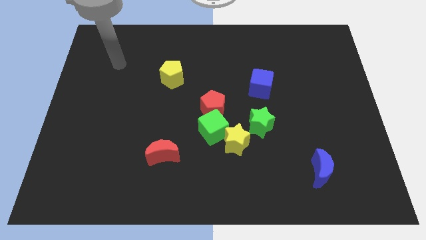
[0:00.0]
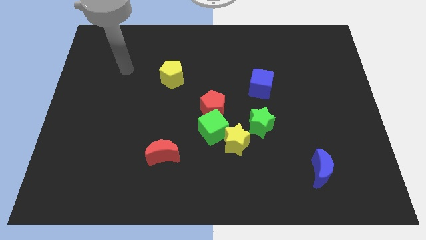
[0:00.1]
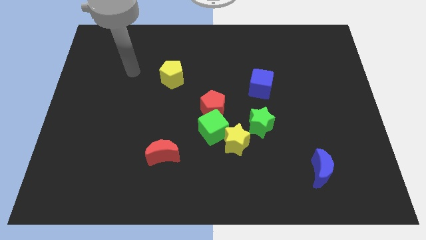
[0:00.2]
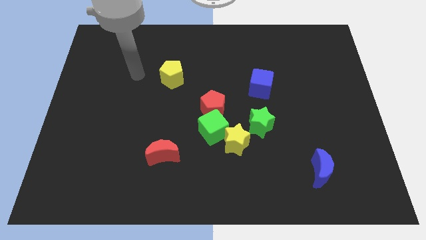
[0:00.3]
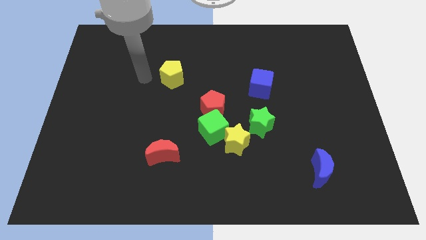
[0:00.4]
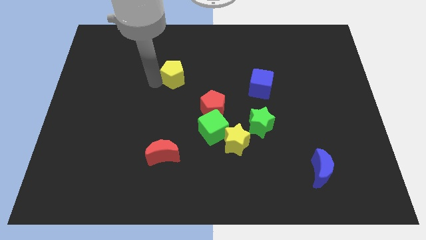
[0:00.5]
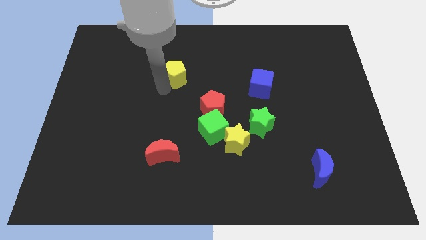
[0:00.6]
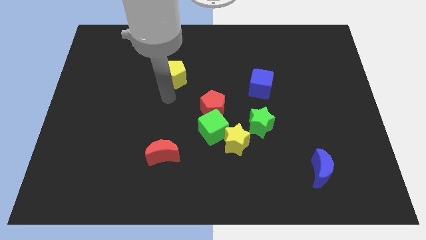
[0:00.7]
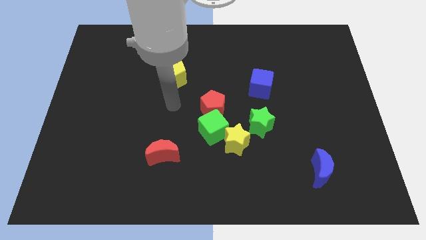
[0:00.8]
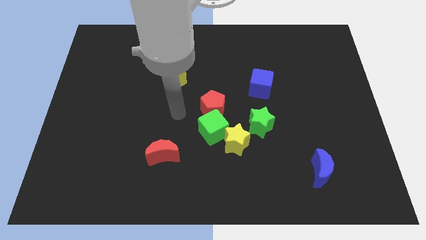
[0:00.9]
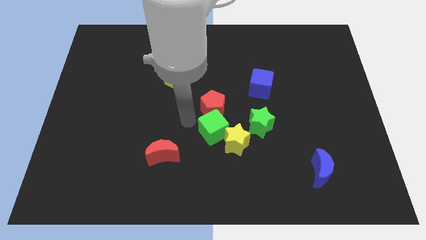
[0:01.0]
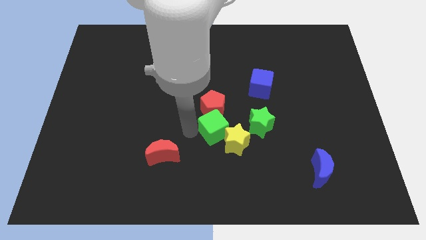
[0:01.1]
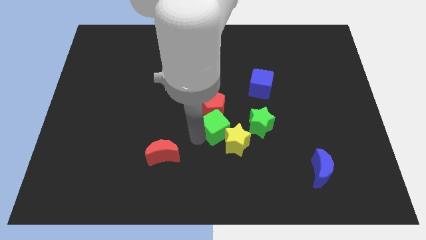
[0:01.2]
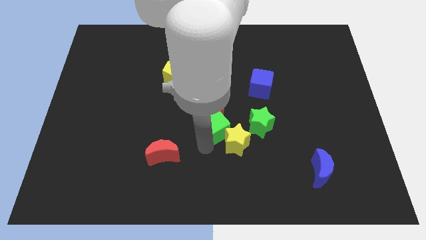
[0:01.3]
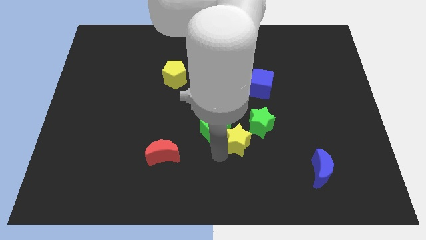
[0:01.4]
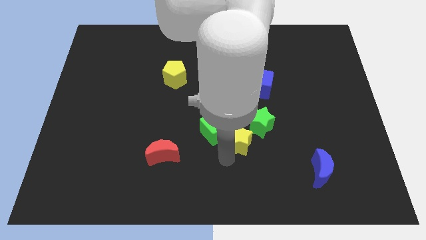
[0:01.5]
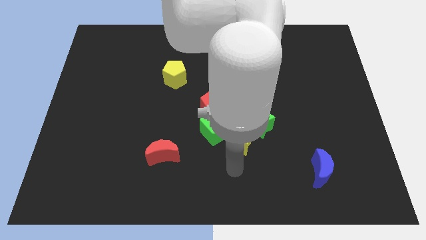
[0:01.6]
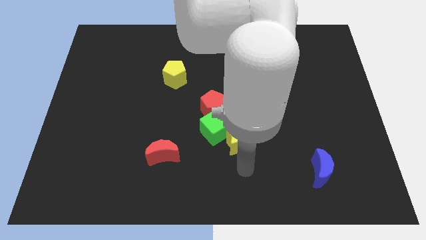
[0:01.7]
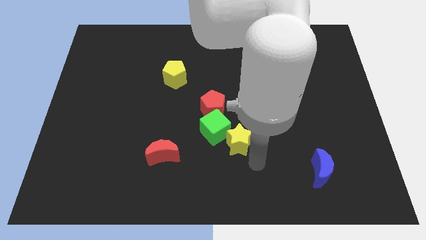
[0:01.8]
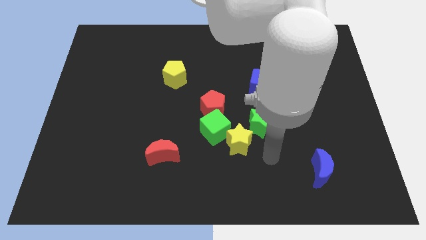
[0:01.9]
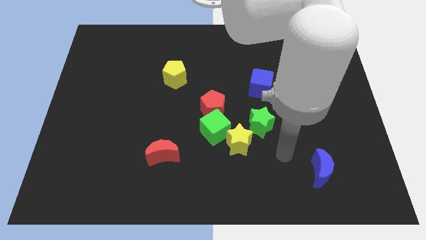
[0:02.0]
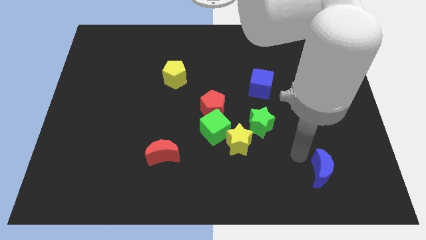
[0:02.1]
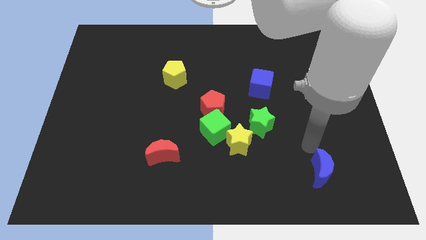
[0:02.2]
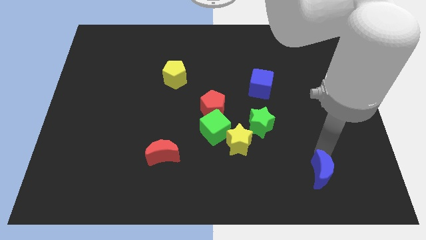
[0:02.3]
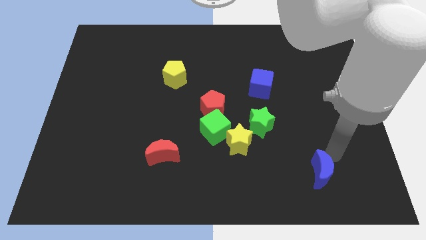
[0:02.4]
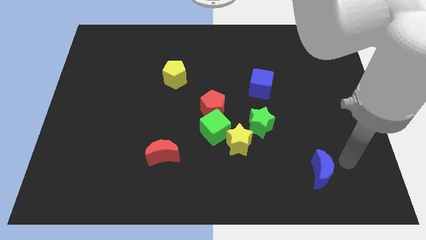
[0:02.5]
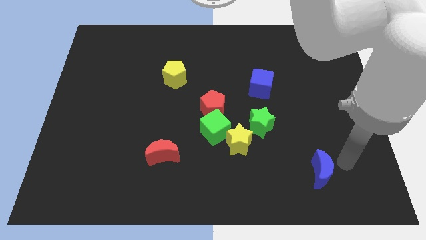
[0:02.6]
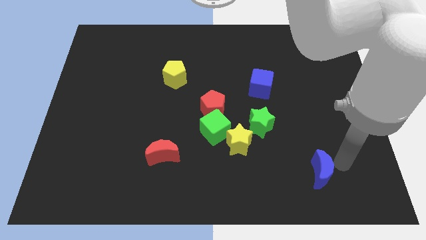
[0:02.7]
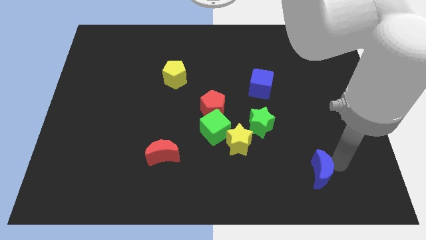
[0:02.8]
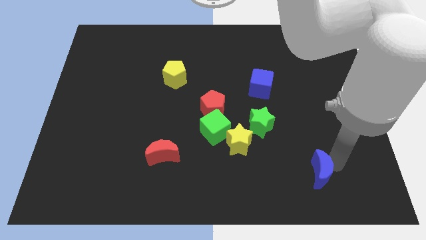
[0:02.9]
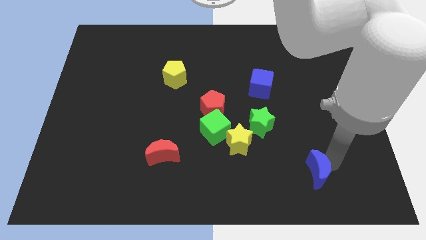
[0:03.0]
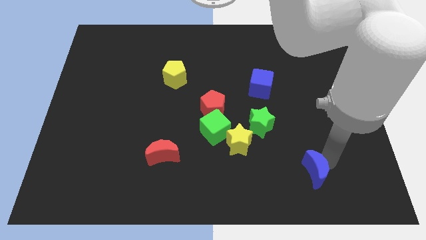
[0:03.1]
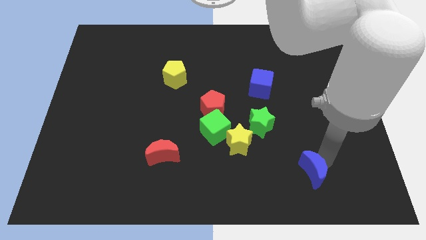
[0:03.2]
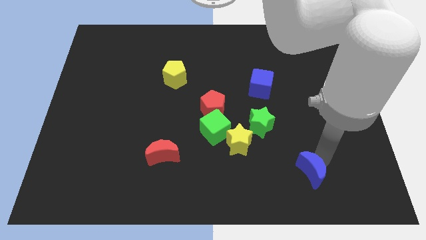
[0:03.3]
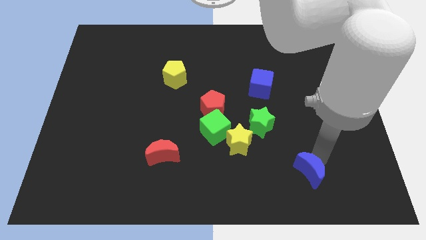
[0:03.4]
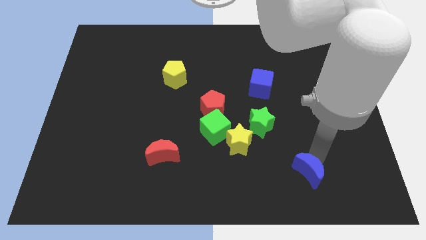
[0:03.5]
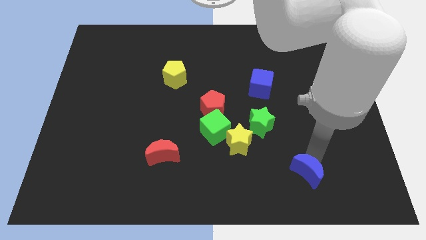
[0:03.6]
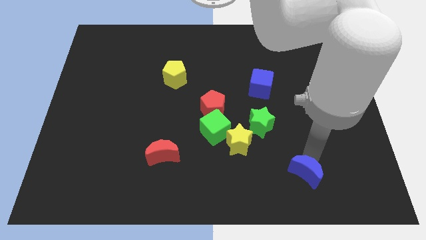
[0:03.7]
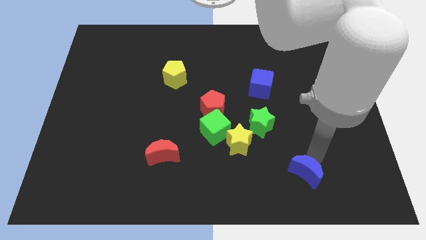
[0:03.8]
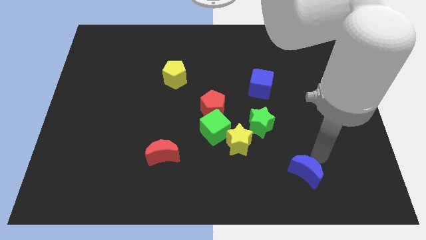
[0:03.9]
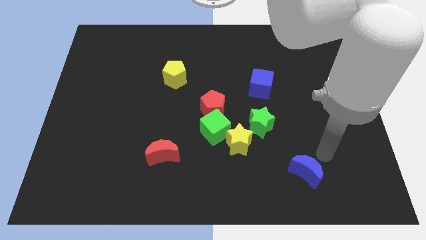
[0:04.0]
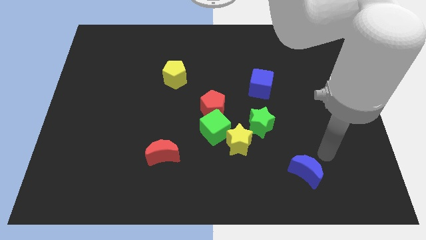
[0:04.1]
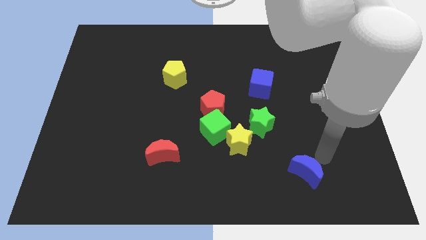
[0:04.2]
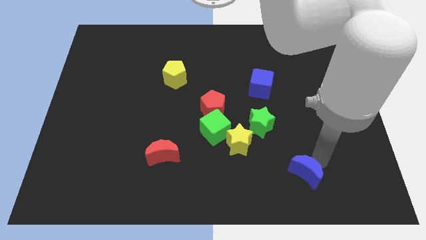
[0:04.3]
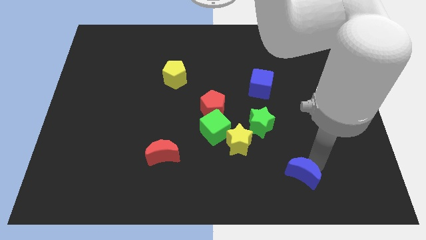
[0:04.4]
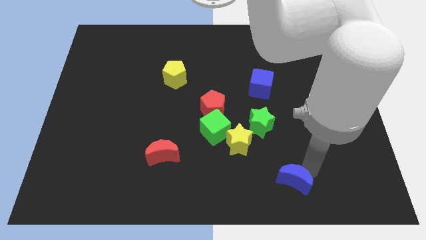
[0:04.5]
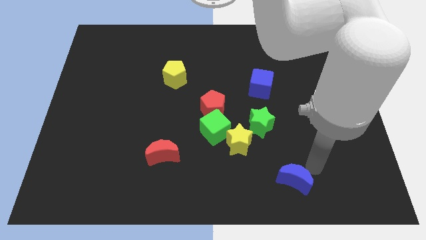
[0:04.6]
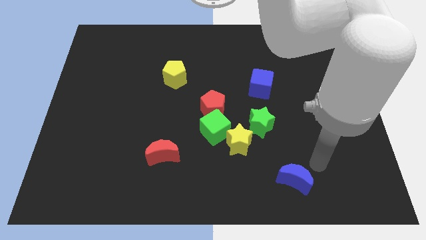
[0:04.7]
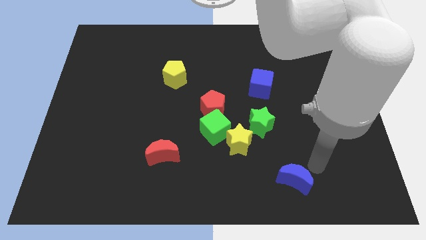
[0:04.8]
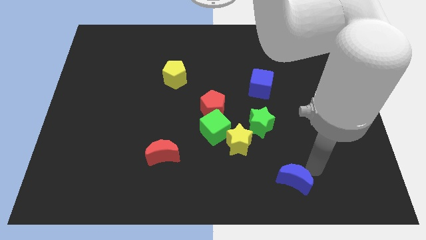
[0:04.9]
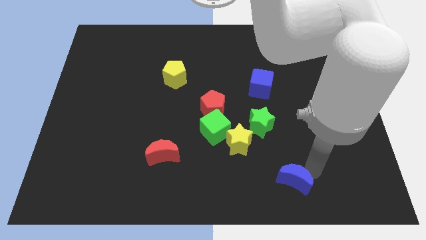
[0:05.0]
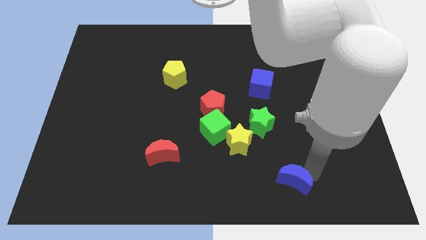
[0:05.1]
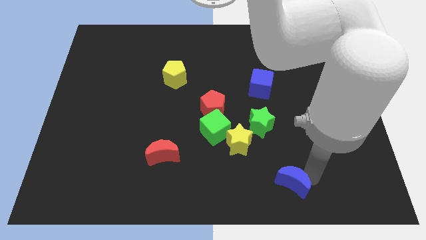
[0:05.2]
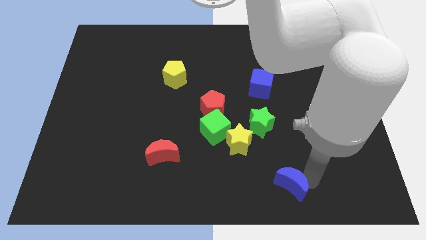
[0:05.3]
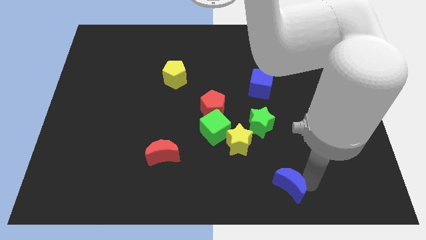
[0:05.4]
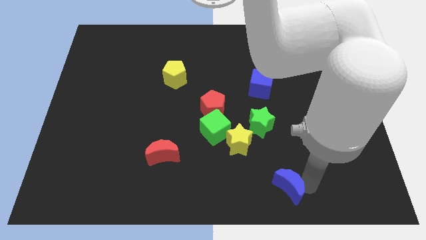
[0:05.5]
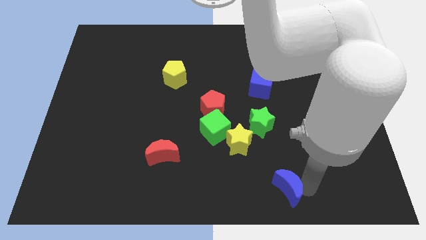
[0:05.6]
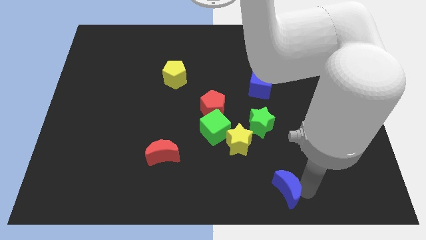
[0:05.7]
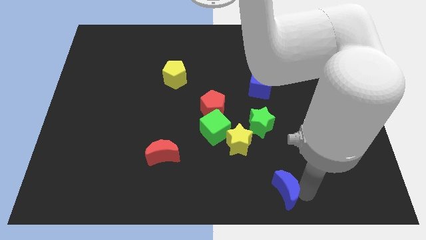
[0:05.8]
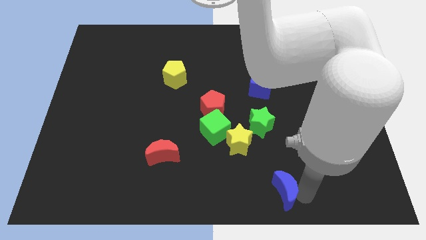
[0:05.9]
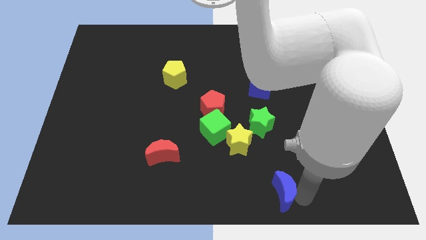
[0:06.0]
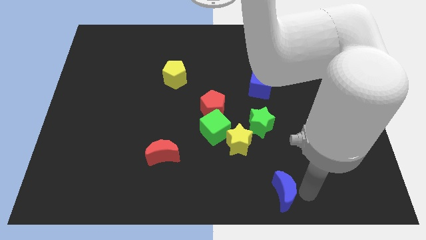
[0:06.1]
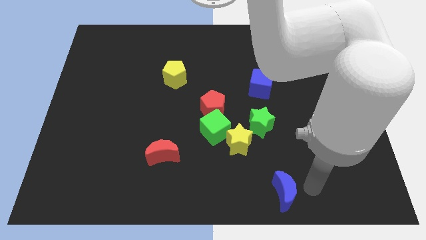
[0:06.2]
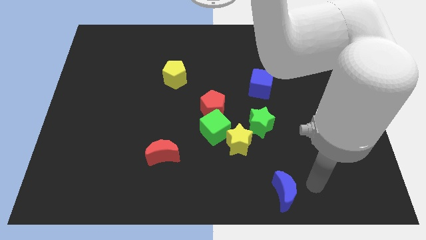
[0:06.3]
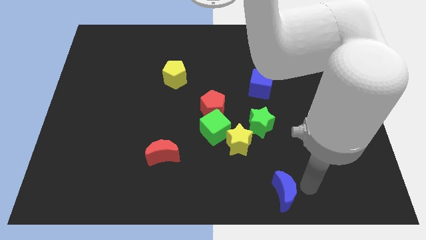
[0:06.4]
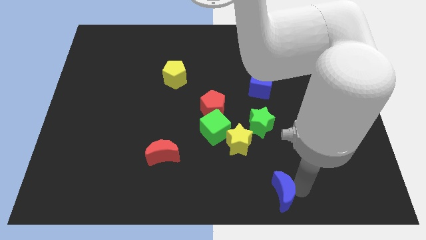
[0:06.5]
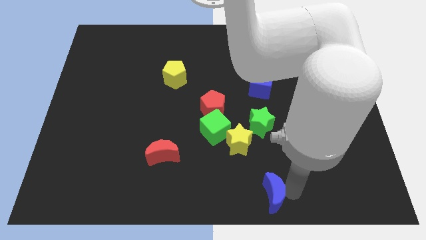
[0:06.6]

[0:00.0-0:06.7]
move the blue moon to the bottom
